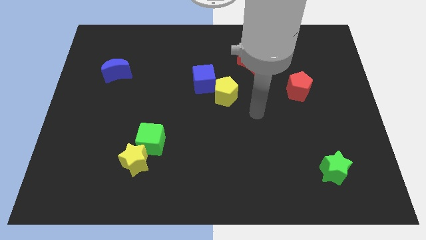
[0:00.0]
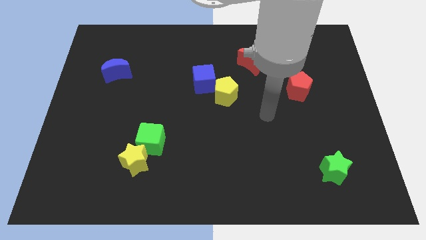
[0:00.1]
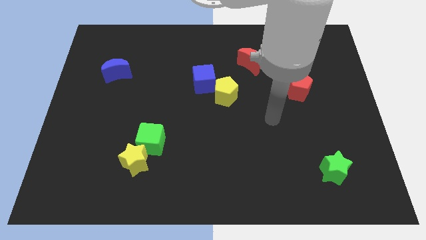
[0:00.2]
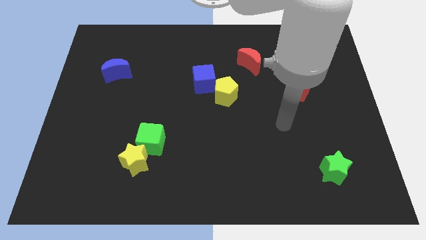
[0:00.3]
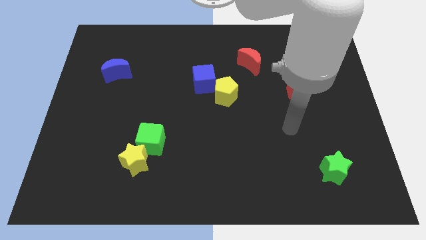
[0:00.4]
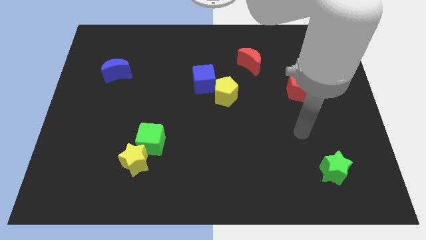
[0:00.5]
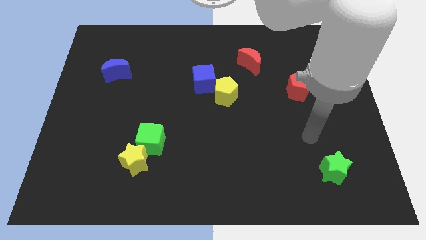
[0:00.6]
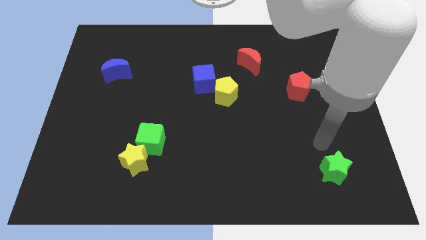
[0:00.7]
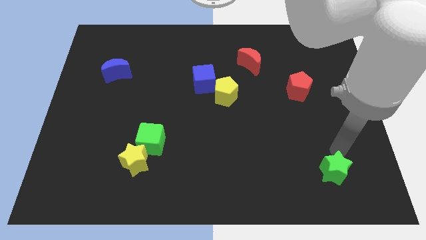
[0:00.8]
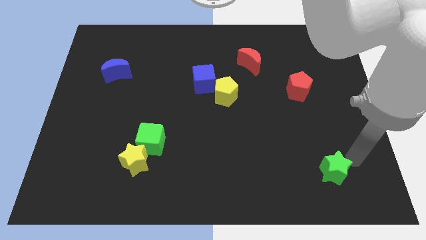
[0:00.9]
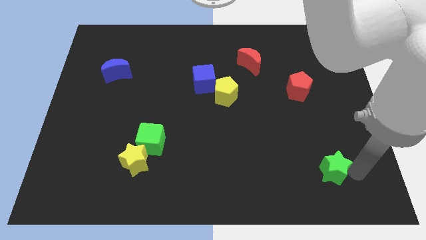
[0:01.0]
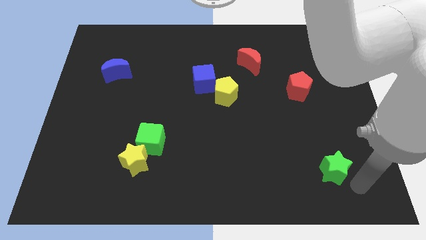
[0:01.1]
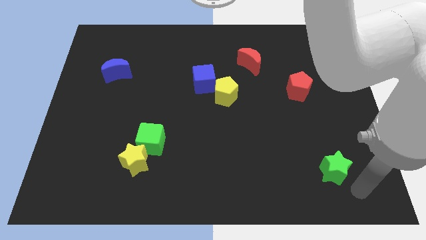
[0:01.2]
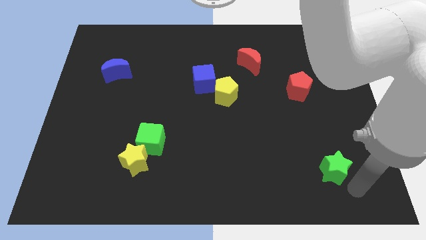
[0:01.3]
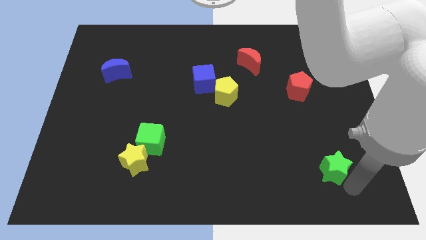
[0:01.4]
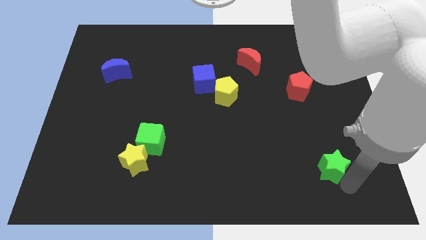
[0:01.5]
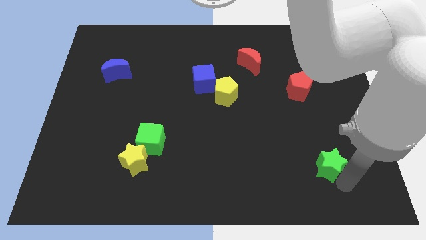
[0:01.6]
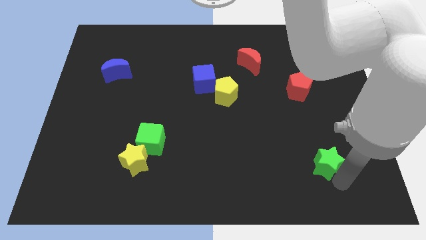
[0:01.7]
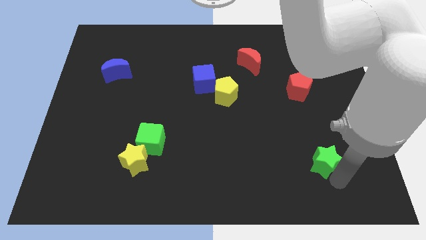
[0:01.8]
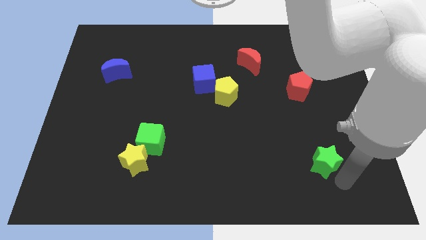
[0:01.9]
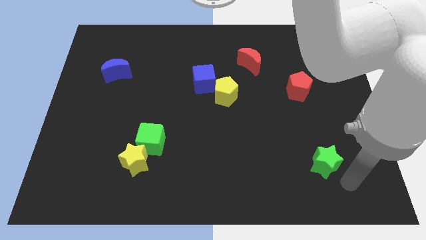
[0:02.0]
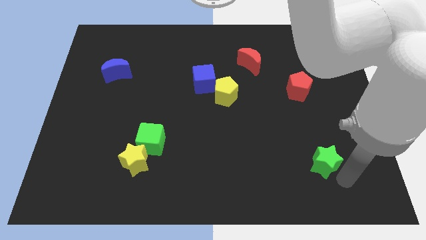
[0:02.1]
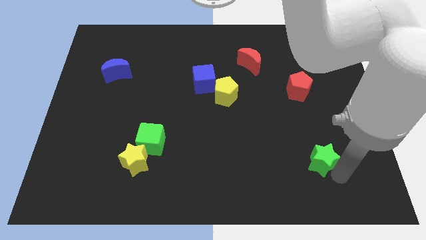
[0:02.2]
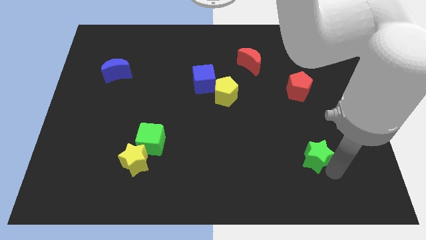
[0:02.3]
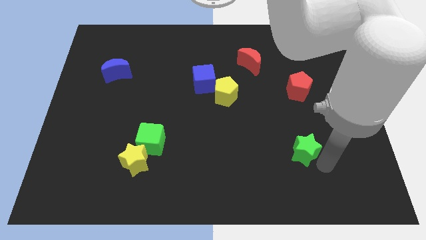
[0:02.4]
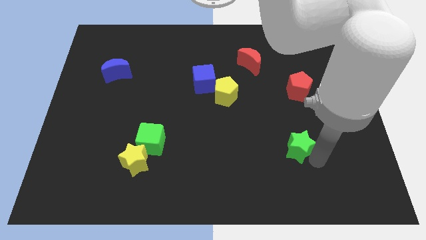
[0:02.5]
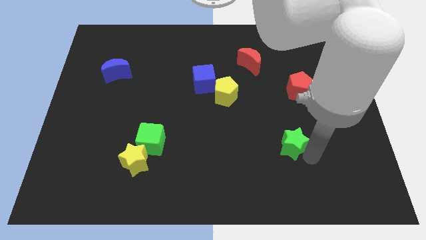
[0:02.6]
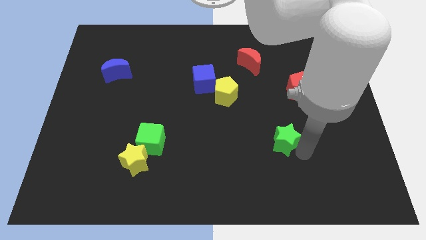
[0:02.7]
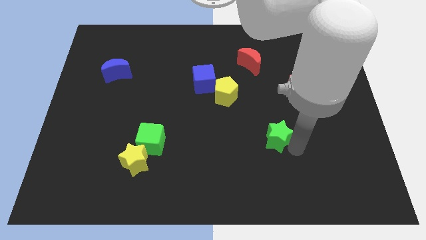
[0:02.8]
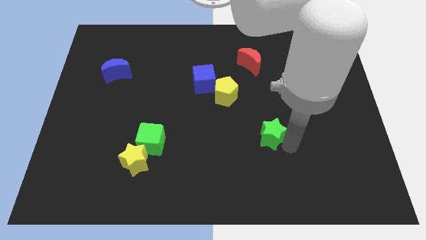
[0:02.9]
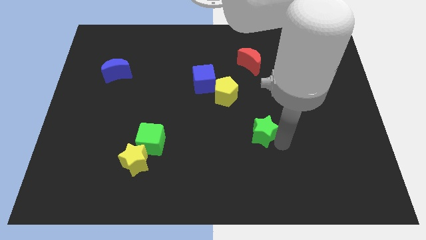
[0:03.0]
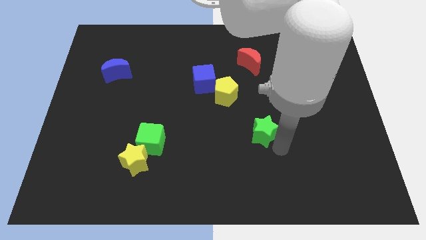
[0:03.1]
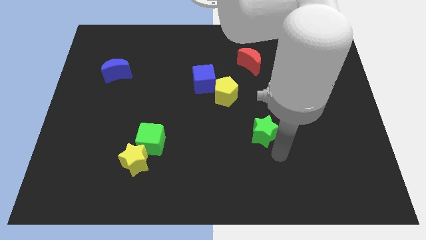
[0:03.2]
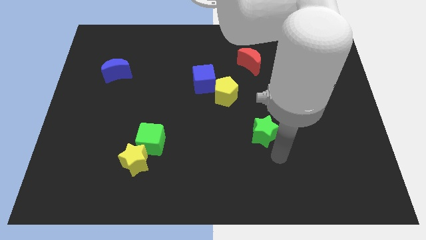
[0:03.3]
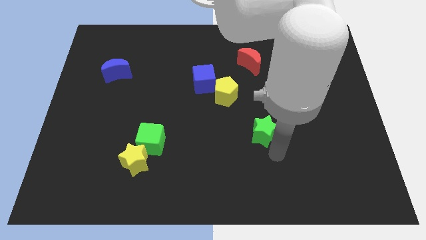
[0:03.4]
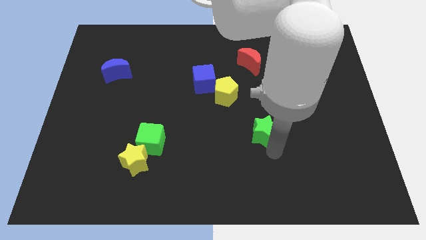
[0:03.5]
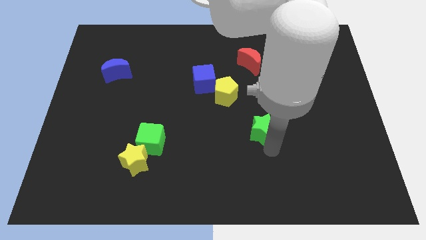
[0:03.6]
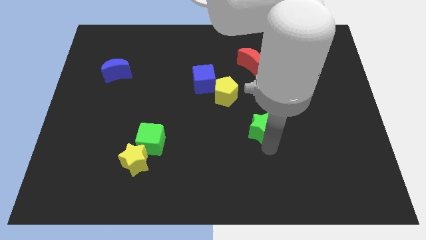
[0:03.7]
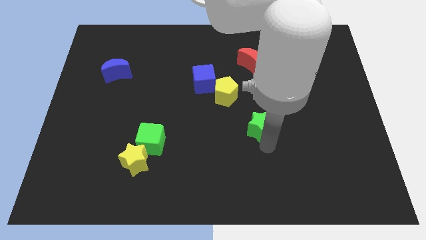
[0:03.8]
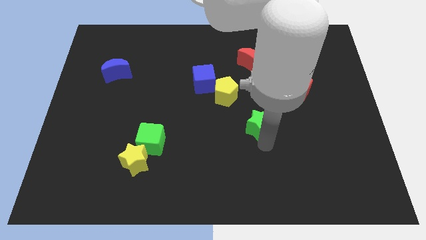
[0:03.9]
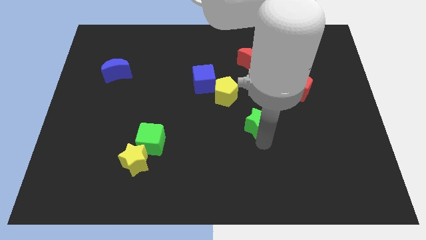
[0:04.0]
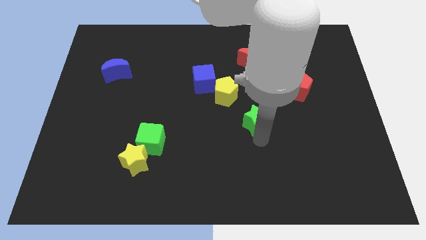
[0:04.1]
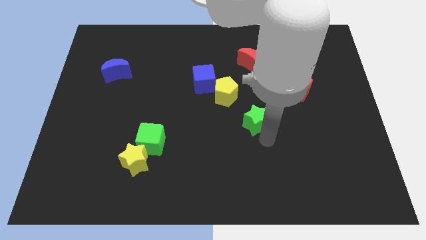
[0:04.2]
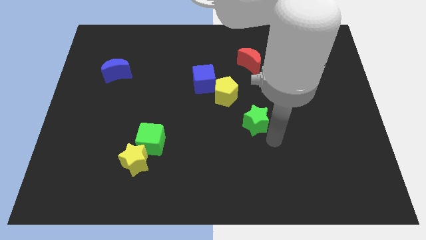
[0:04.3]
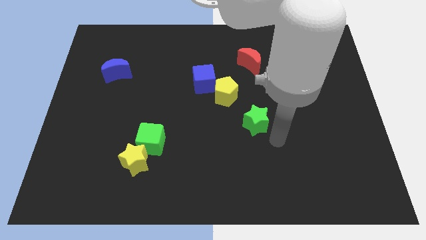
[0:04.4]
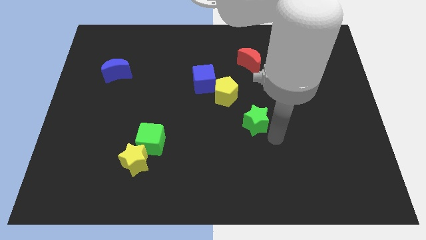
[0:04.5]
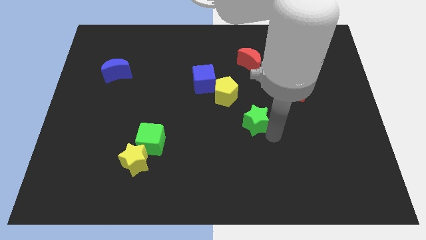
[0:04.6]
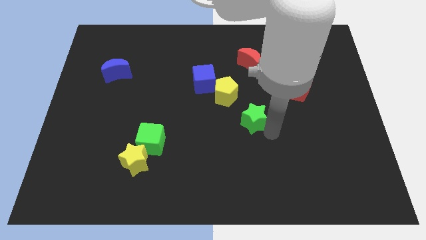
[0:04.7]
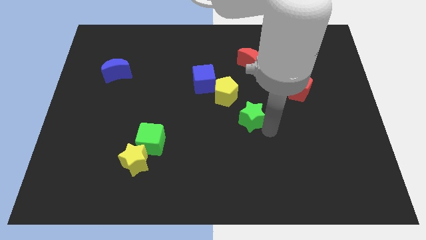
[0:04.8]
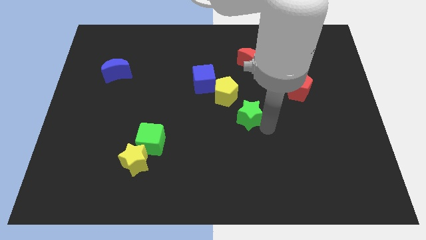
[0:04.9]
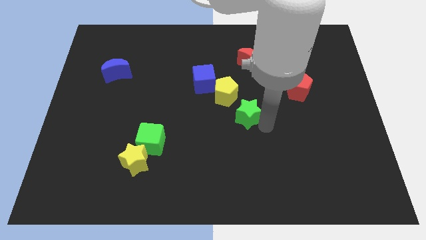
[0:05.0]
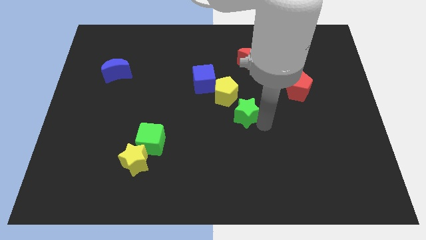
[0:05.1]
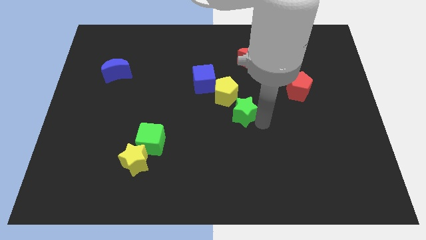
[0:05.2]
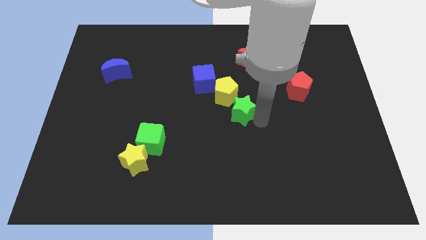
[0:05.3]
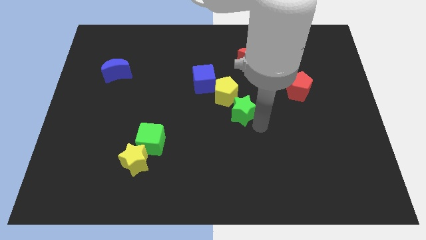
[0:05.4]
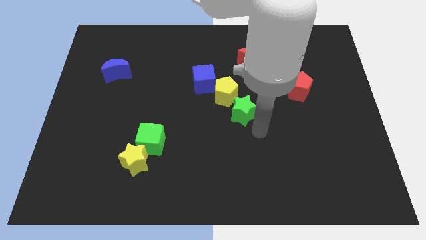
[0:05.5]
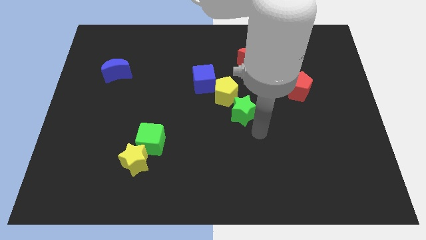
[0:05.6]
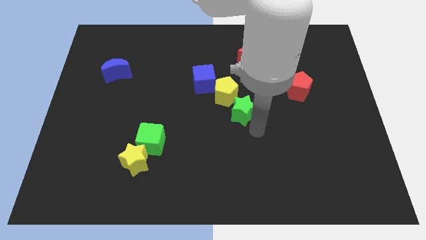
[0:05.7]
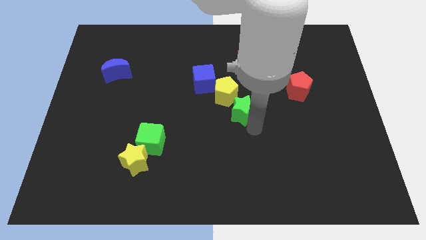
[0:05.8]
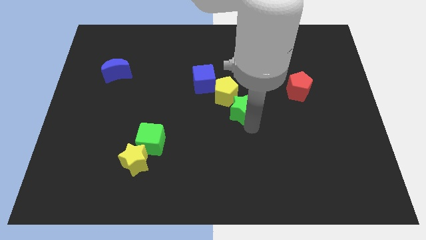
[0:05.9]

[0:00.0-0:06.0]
put the green star to the yellow pentagon
